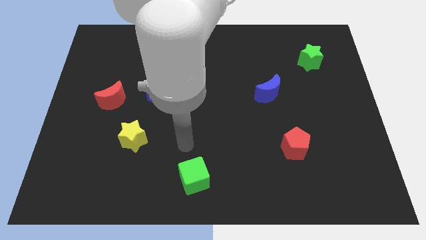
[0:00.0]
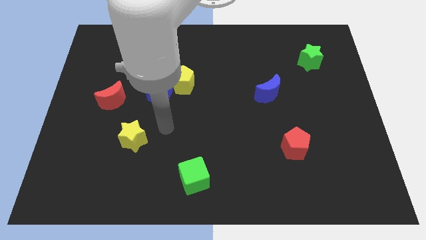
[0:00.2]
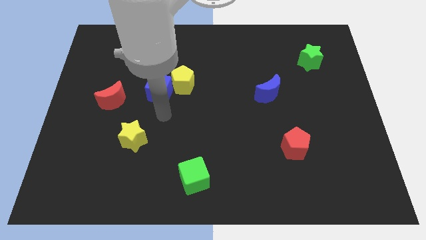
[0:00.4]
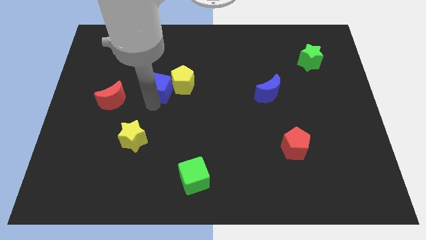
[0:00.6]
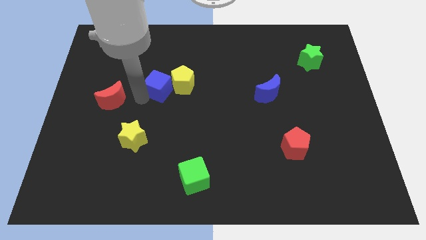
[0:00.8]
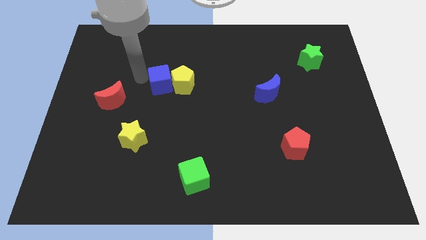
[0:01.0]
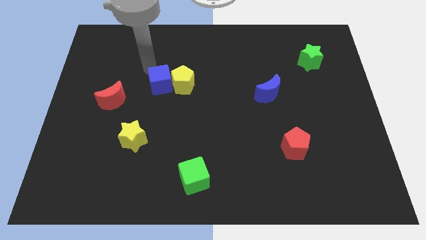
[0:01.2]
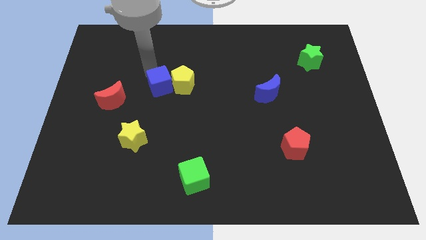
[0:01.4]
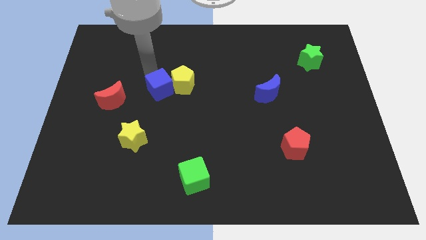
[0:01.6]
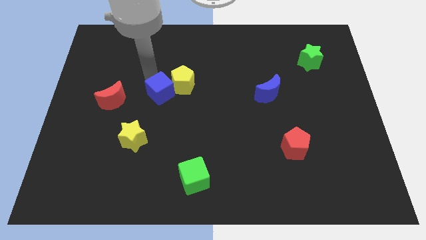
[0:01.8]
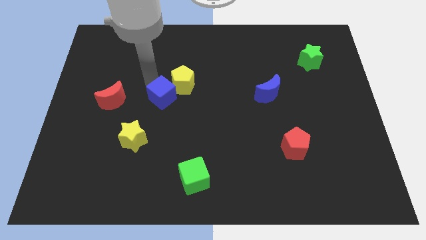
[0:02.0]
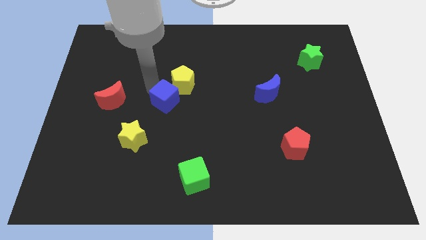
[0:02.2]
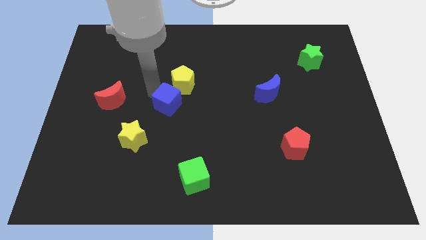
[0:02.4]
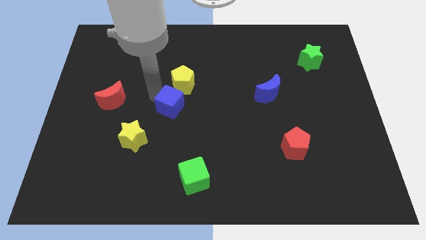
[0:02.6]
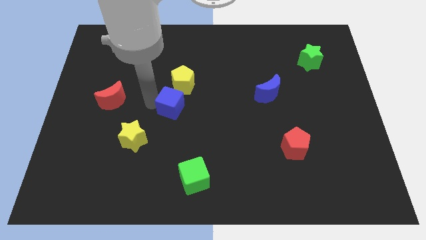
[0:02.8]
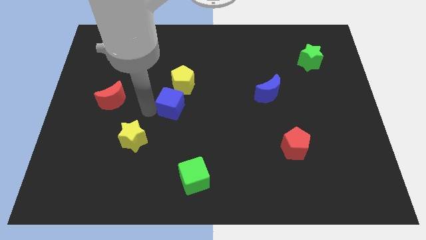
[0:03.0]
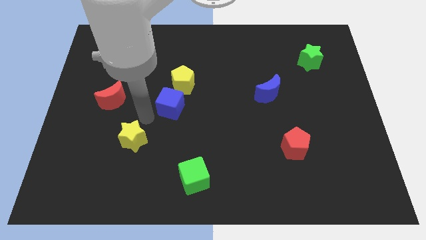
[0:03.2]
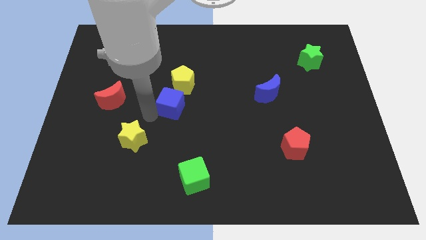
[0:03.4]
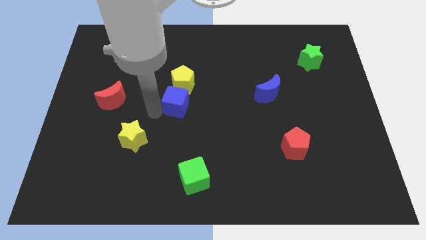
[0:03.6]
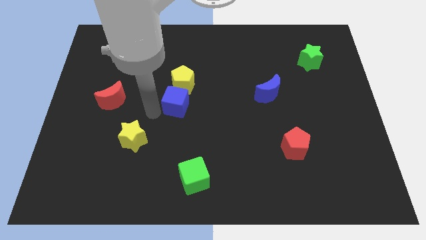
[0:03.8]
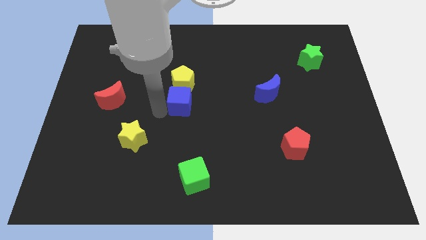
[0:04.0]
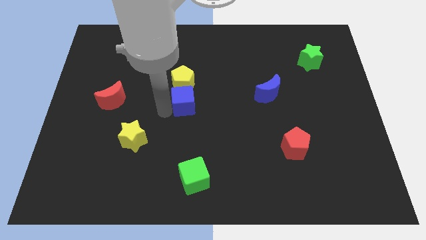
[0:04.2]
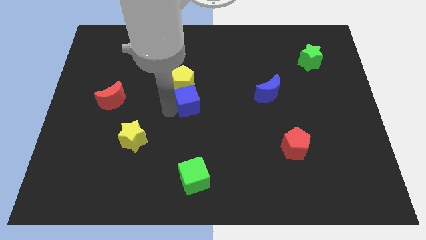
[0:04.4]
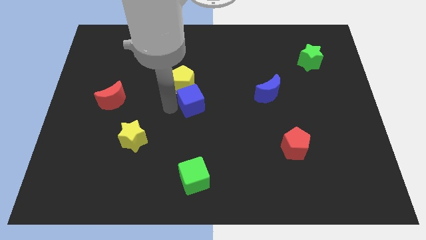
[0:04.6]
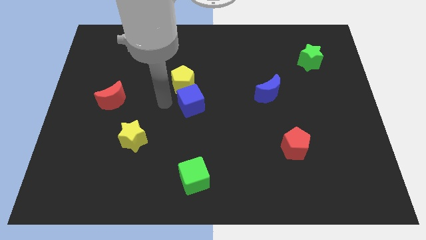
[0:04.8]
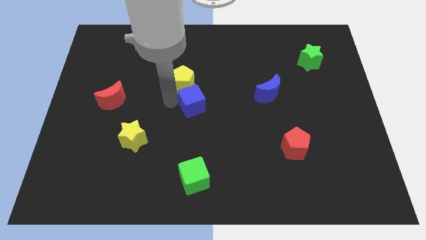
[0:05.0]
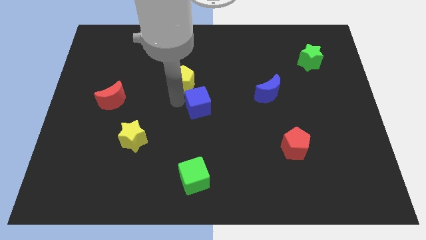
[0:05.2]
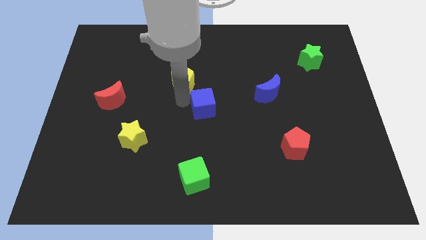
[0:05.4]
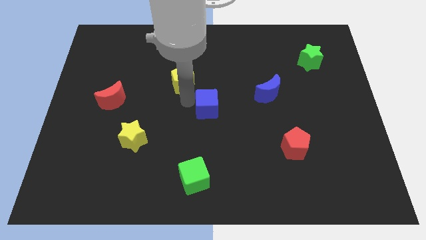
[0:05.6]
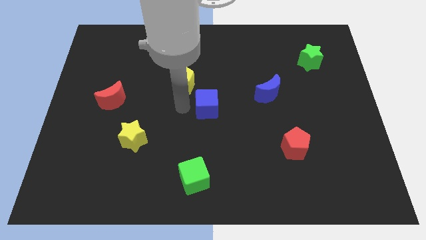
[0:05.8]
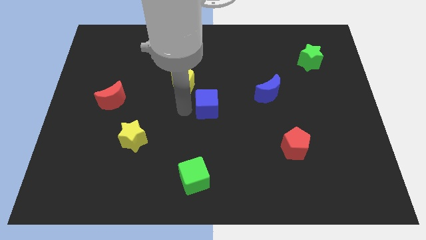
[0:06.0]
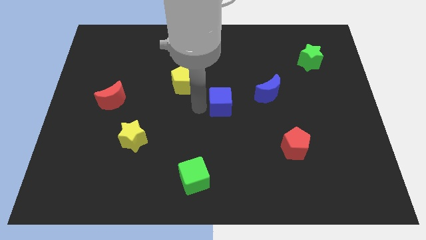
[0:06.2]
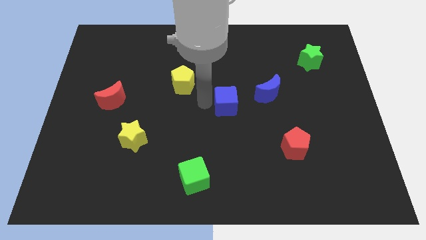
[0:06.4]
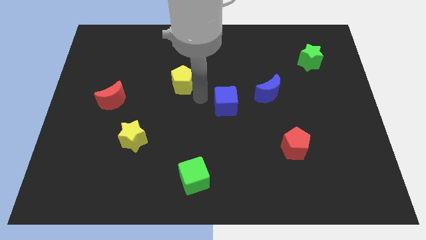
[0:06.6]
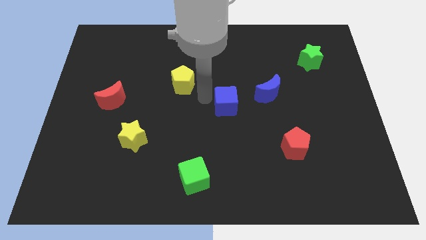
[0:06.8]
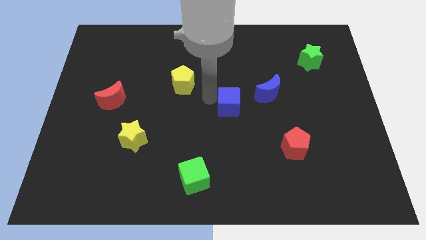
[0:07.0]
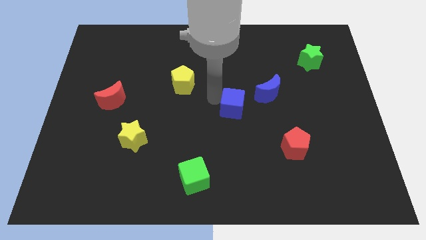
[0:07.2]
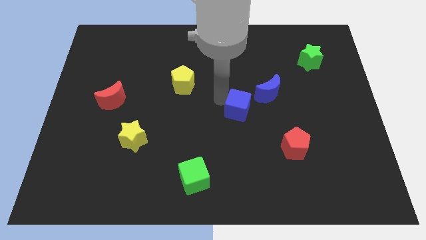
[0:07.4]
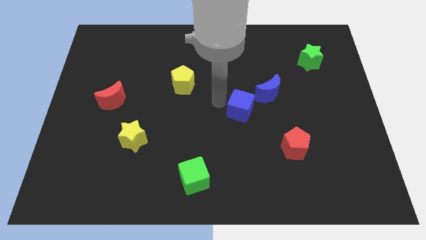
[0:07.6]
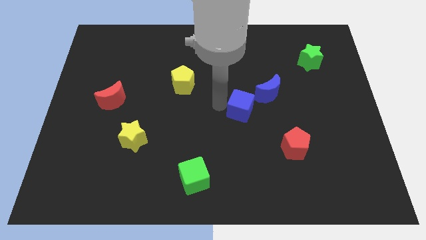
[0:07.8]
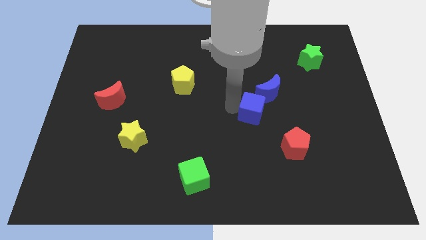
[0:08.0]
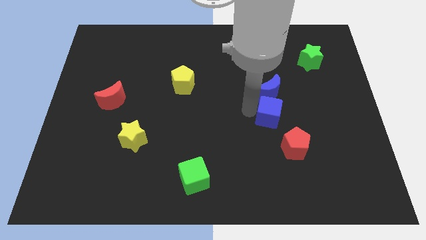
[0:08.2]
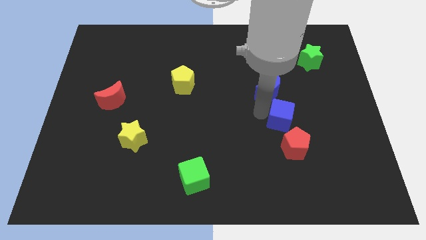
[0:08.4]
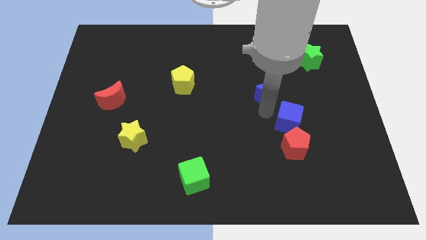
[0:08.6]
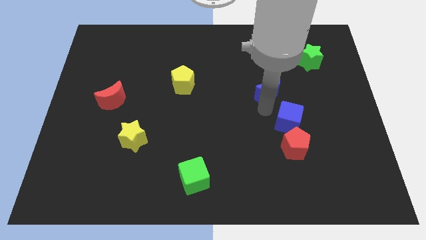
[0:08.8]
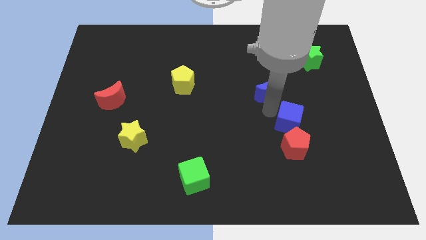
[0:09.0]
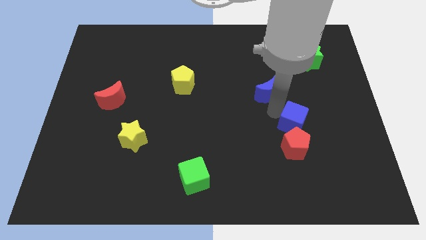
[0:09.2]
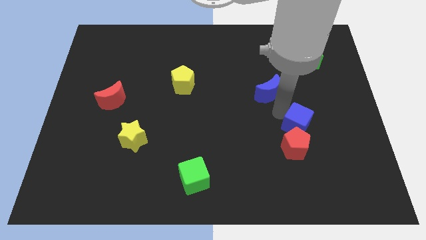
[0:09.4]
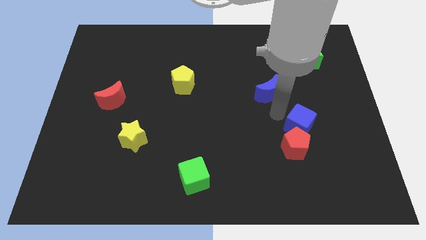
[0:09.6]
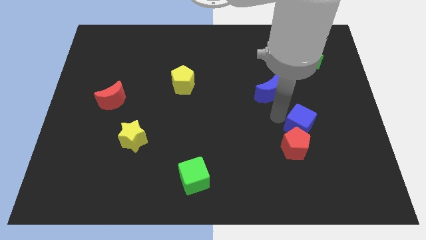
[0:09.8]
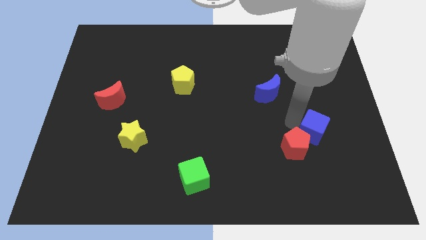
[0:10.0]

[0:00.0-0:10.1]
slide the blue cube just right of the red pentagon

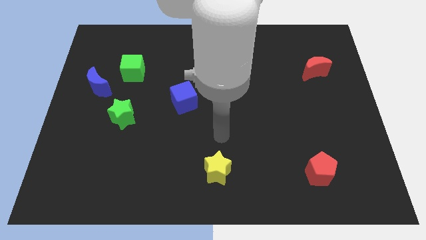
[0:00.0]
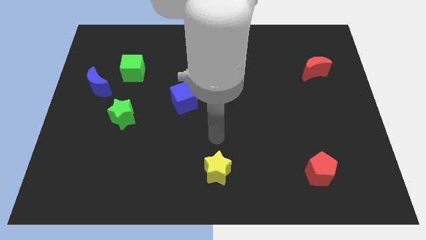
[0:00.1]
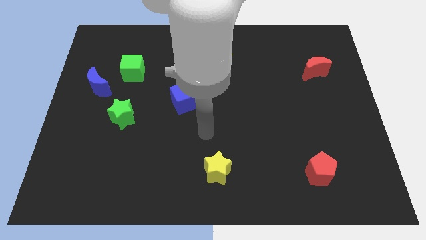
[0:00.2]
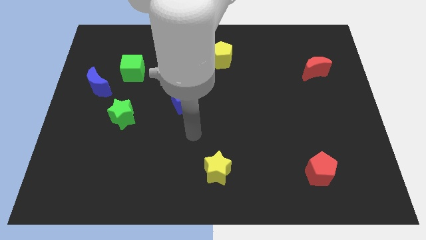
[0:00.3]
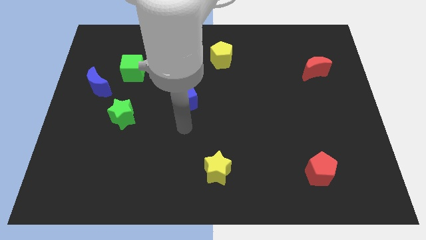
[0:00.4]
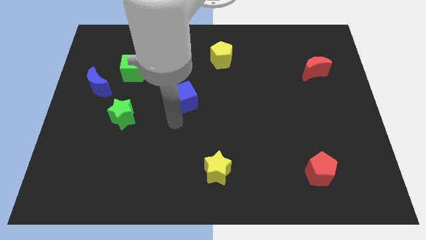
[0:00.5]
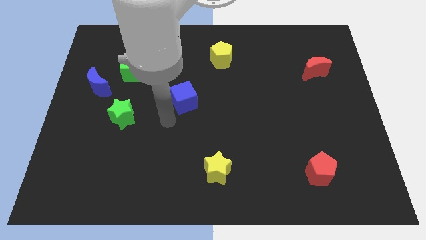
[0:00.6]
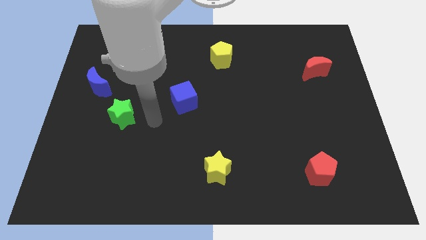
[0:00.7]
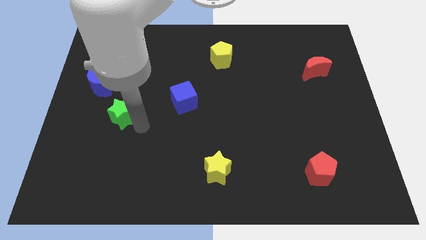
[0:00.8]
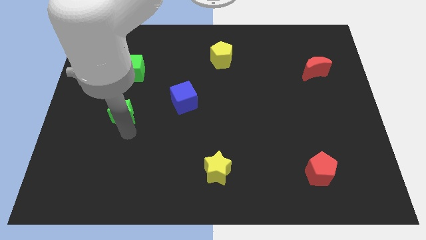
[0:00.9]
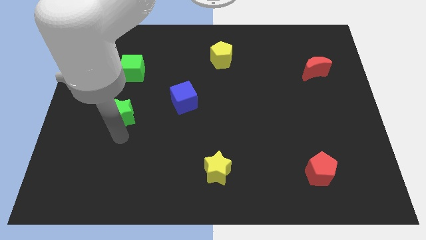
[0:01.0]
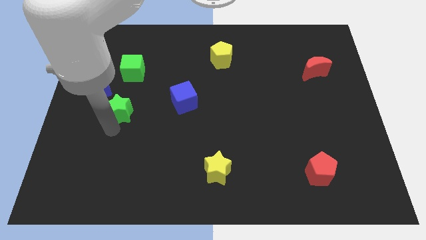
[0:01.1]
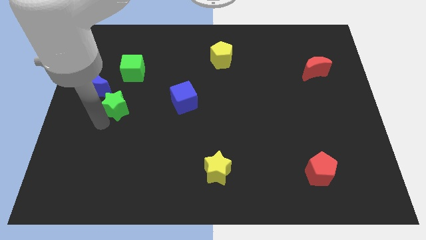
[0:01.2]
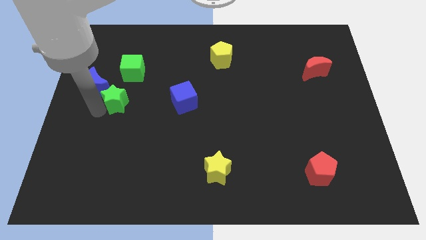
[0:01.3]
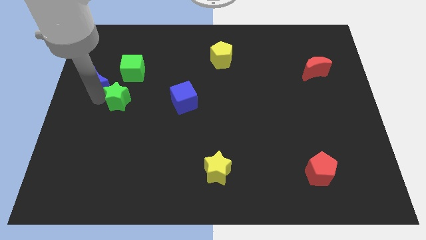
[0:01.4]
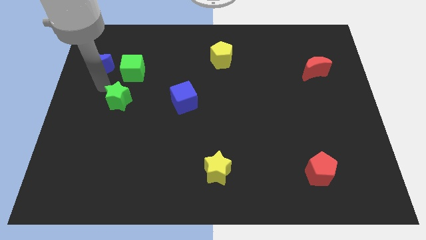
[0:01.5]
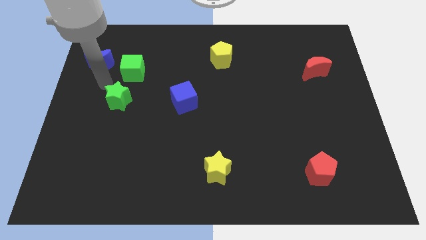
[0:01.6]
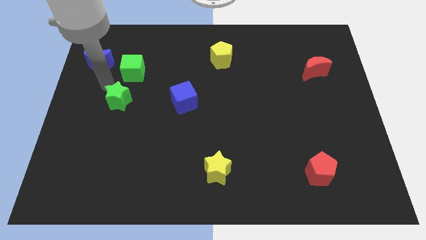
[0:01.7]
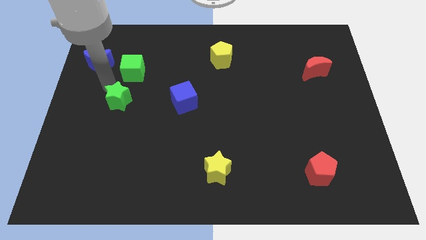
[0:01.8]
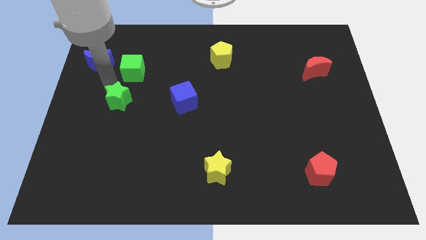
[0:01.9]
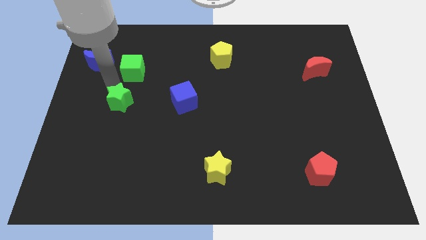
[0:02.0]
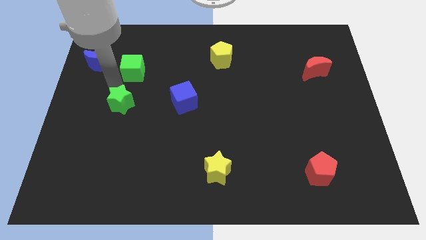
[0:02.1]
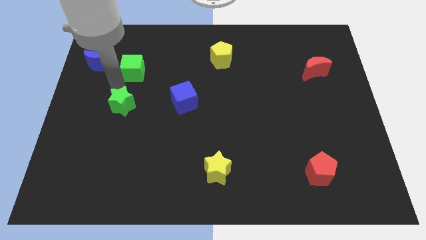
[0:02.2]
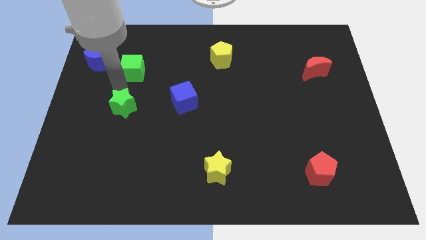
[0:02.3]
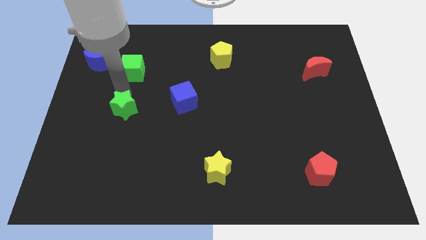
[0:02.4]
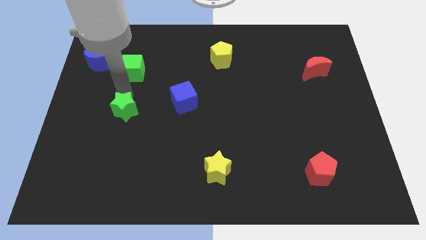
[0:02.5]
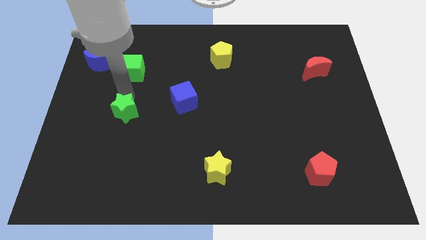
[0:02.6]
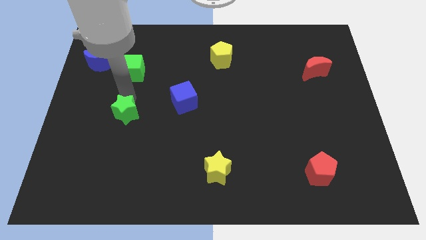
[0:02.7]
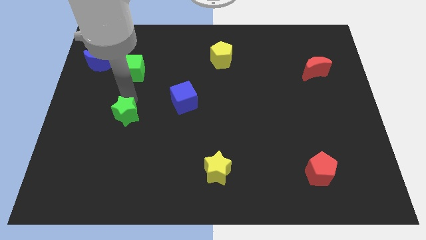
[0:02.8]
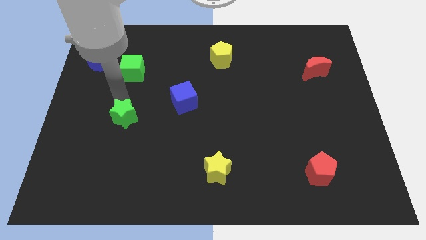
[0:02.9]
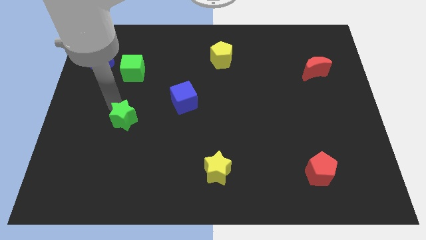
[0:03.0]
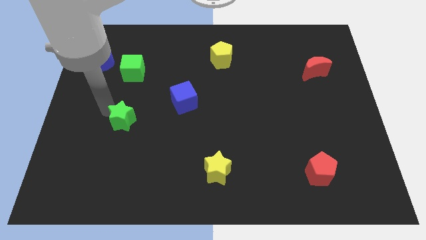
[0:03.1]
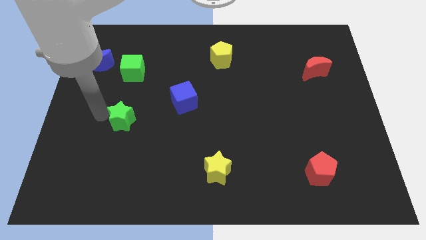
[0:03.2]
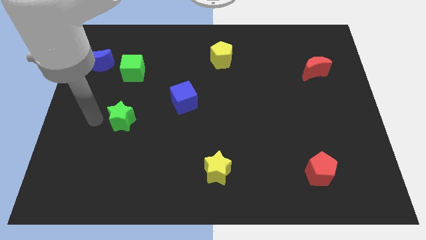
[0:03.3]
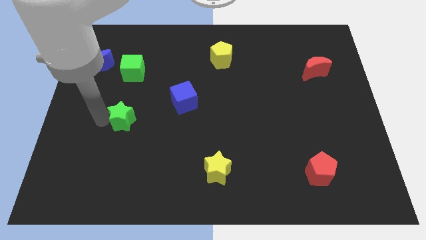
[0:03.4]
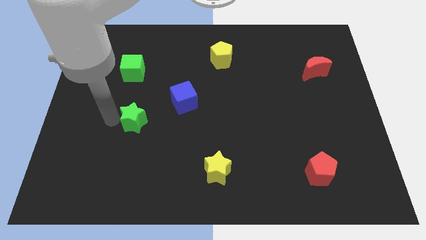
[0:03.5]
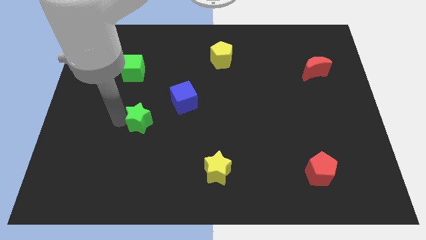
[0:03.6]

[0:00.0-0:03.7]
put the green star to the bottom left of the blue cube
